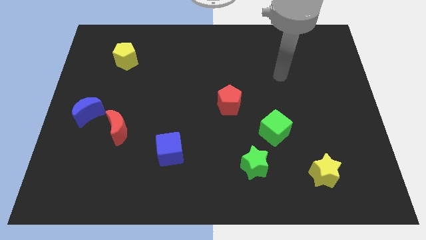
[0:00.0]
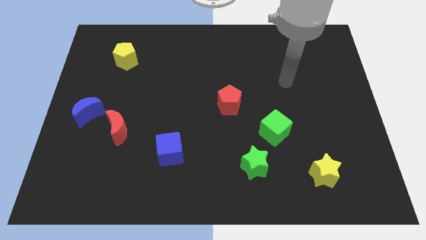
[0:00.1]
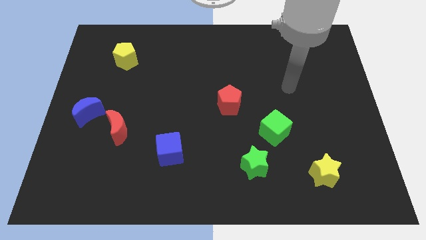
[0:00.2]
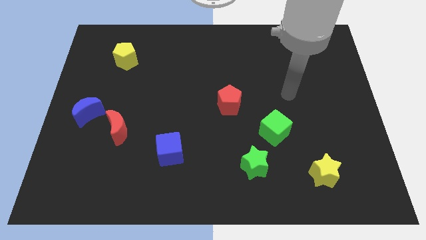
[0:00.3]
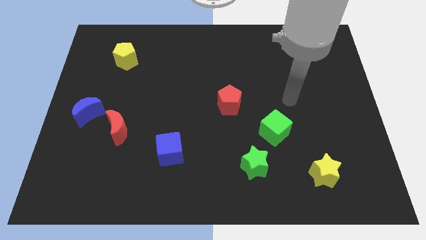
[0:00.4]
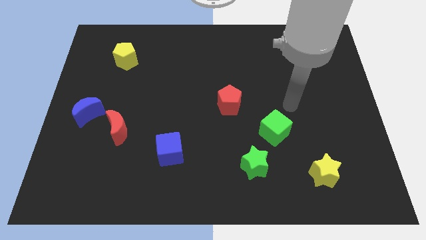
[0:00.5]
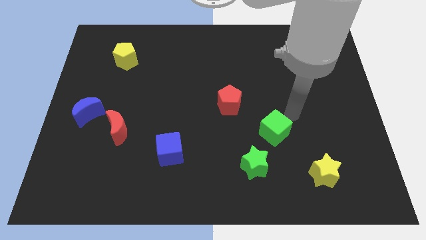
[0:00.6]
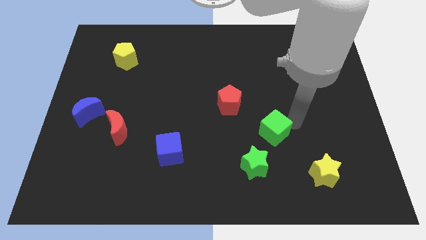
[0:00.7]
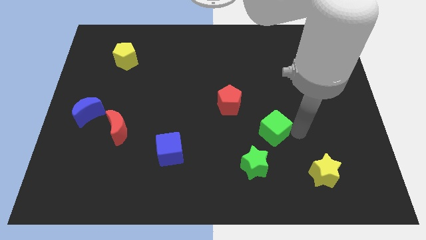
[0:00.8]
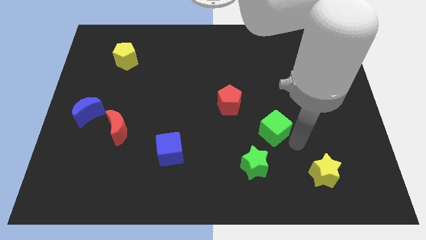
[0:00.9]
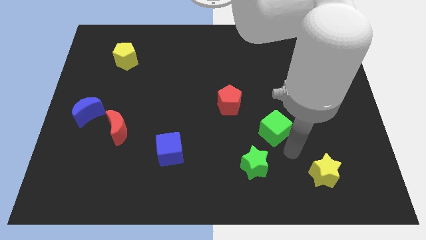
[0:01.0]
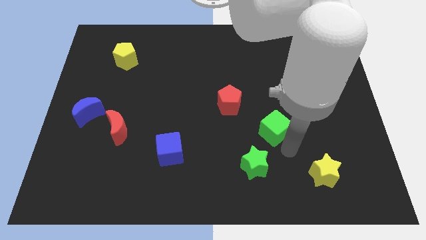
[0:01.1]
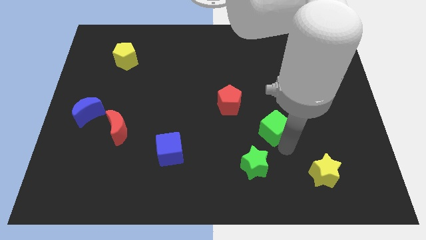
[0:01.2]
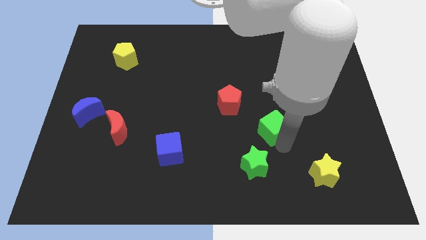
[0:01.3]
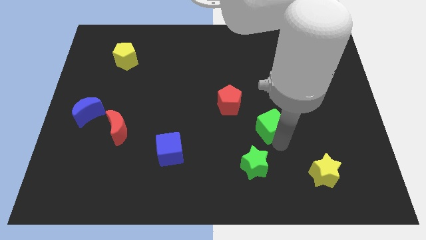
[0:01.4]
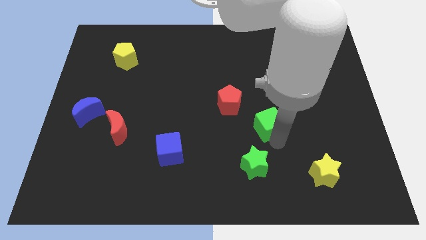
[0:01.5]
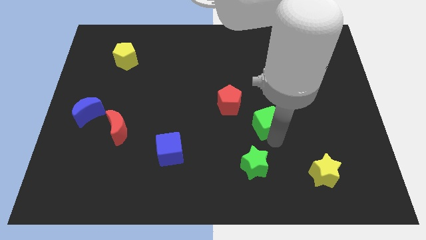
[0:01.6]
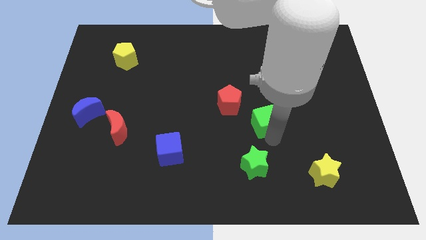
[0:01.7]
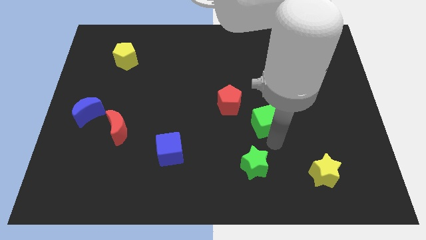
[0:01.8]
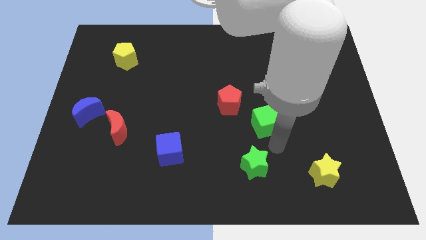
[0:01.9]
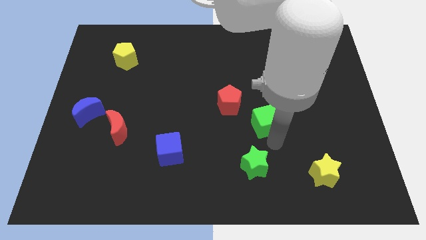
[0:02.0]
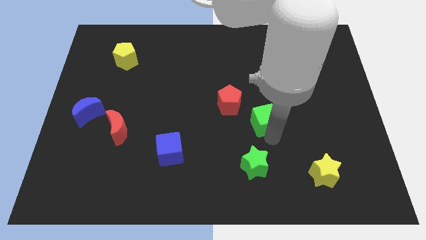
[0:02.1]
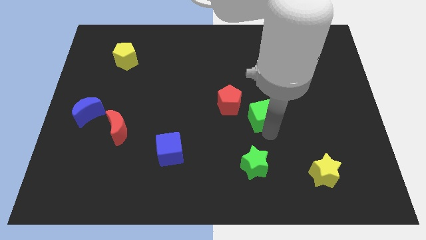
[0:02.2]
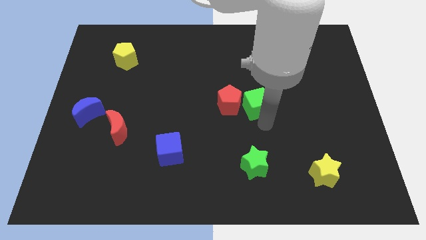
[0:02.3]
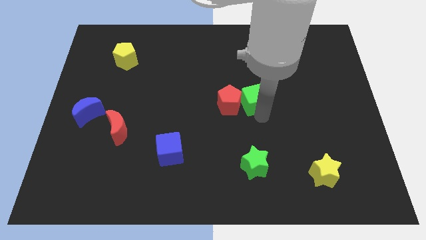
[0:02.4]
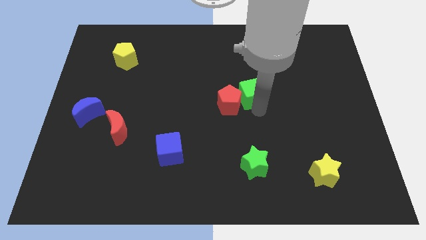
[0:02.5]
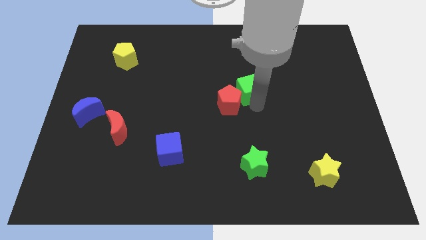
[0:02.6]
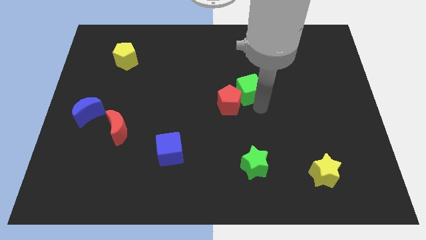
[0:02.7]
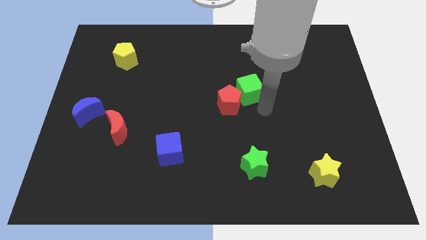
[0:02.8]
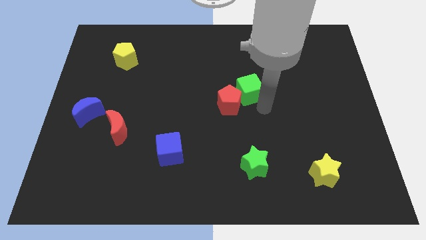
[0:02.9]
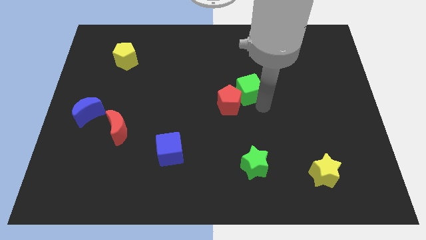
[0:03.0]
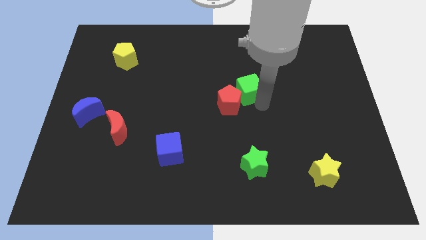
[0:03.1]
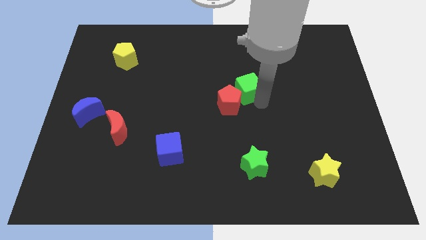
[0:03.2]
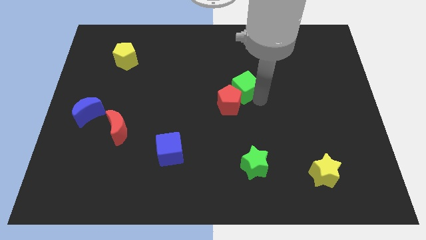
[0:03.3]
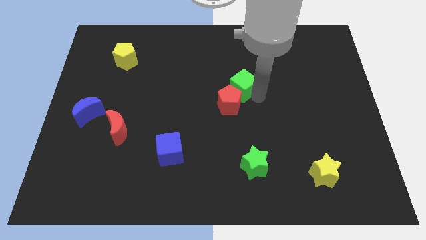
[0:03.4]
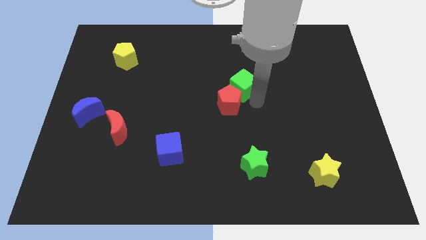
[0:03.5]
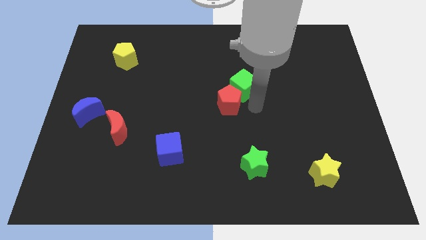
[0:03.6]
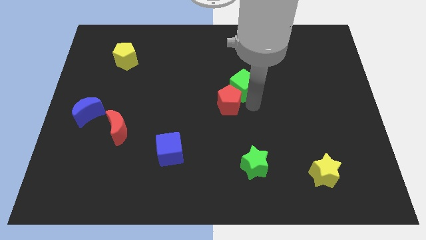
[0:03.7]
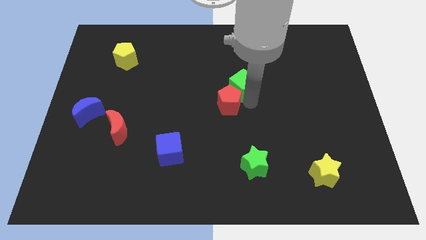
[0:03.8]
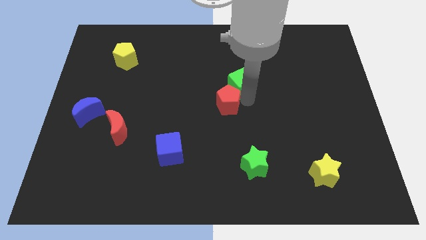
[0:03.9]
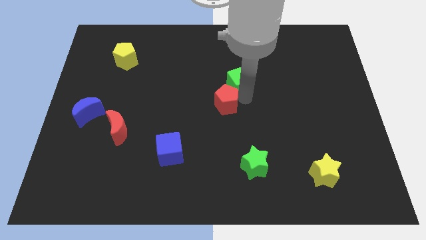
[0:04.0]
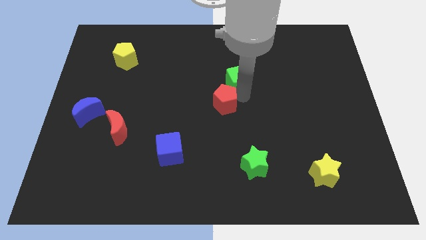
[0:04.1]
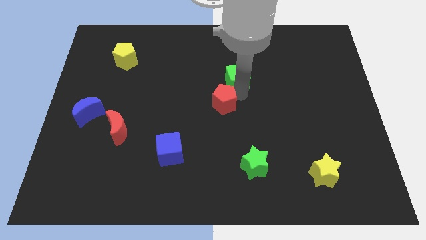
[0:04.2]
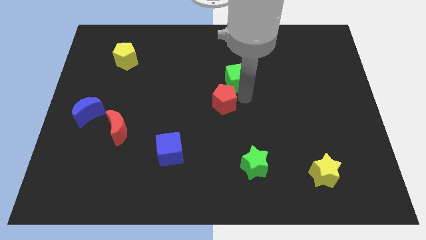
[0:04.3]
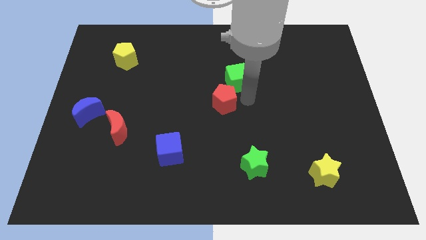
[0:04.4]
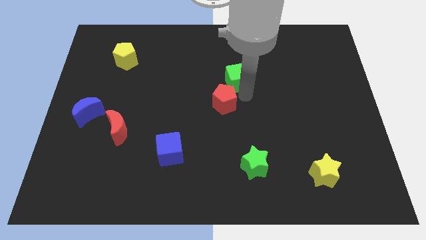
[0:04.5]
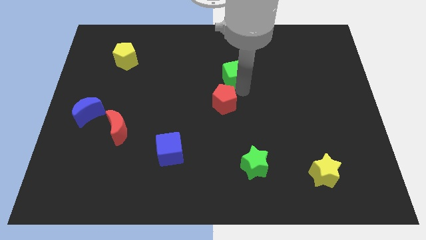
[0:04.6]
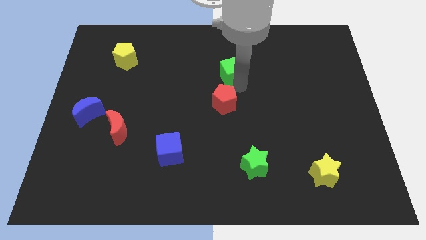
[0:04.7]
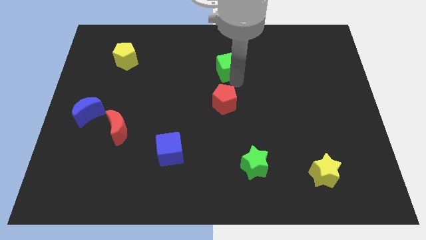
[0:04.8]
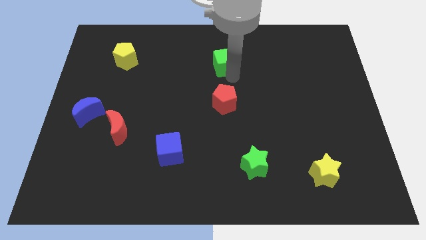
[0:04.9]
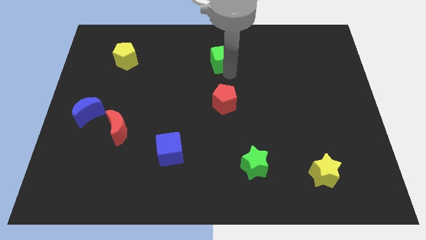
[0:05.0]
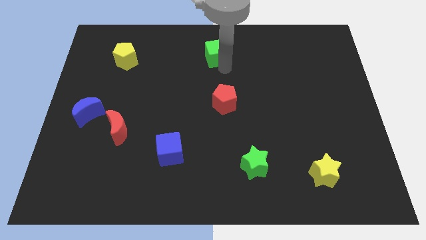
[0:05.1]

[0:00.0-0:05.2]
push the green cube to the top

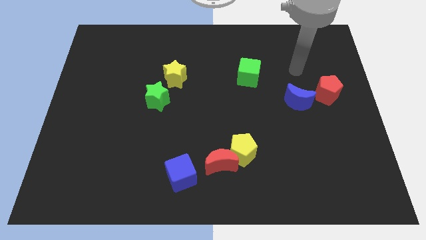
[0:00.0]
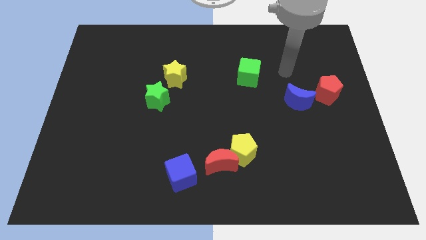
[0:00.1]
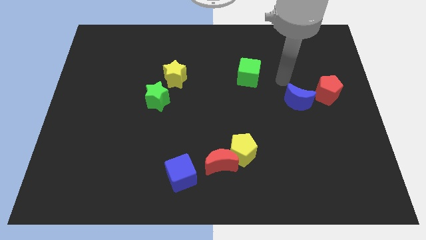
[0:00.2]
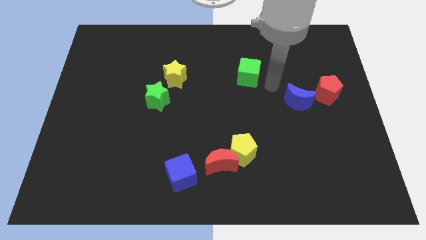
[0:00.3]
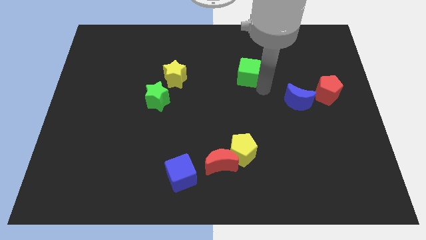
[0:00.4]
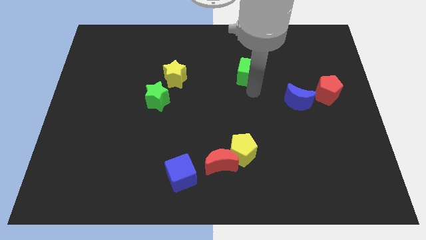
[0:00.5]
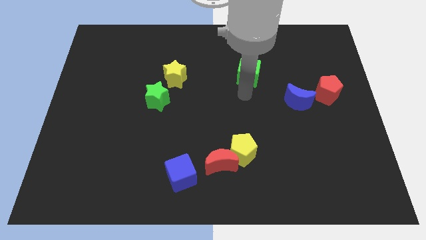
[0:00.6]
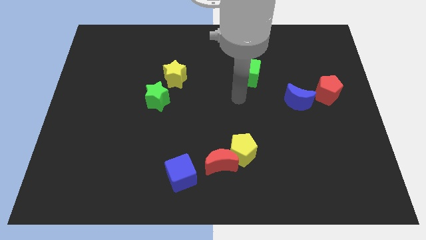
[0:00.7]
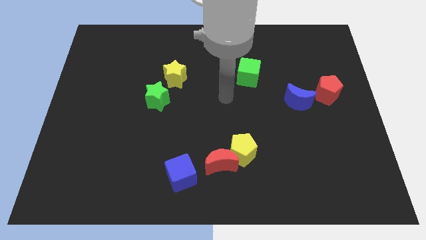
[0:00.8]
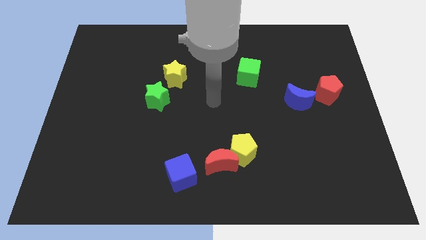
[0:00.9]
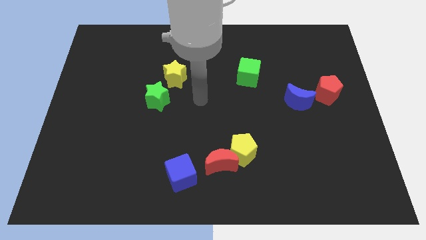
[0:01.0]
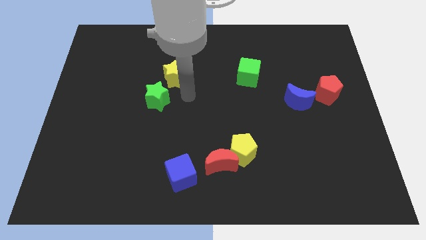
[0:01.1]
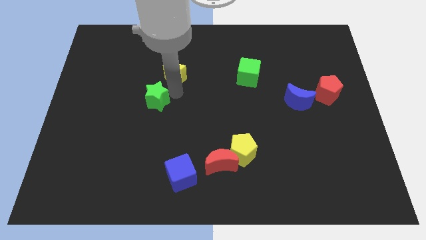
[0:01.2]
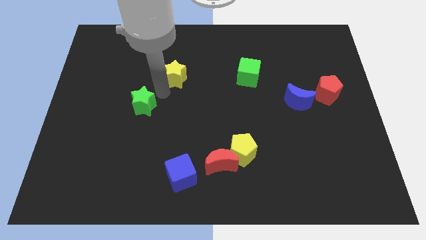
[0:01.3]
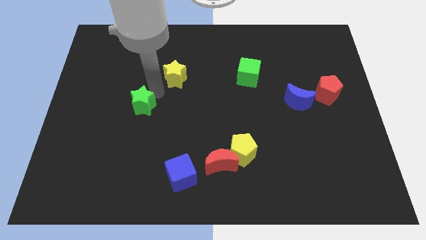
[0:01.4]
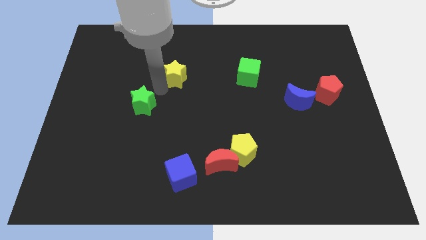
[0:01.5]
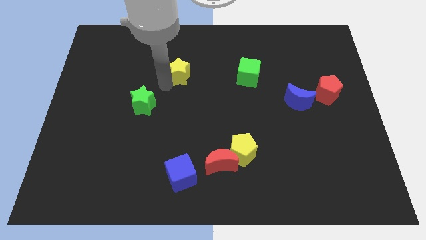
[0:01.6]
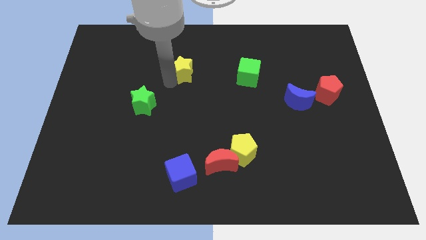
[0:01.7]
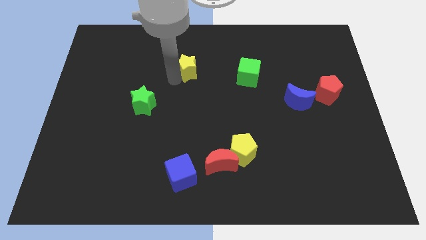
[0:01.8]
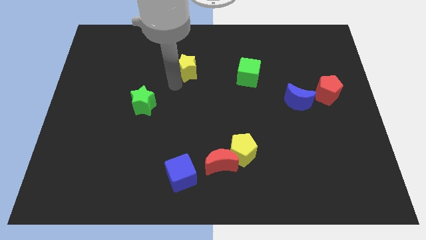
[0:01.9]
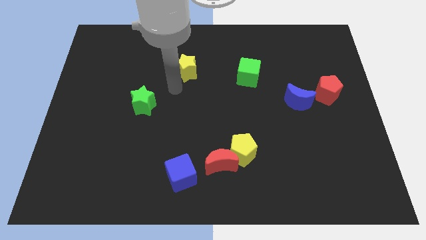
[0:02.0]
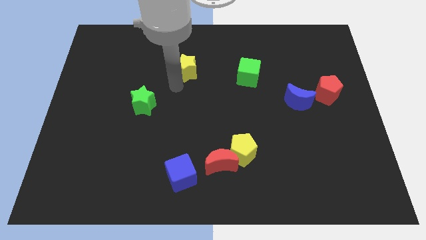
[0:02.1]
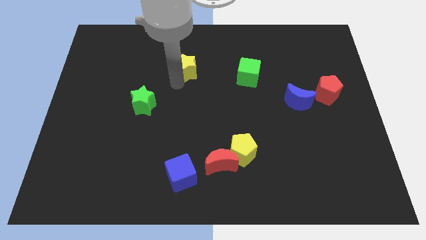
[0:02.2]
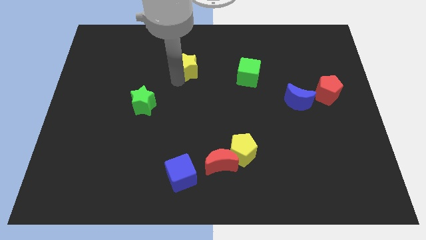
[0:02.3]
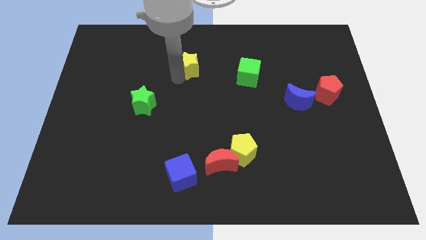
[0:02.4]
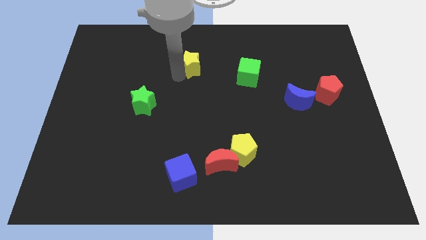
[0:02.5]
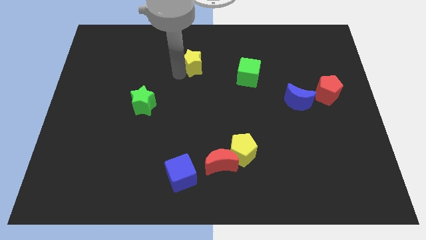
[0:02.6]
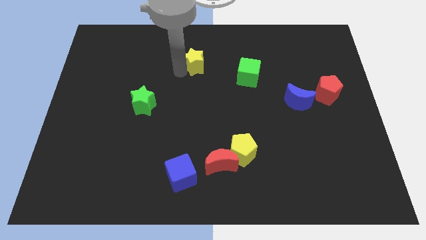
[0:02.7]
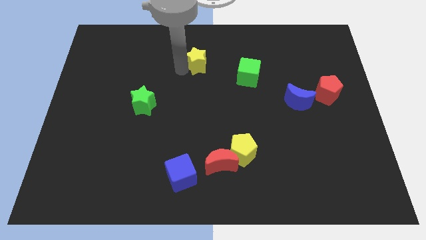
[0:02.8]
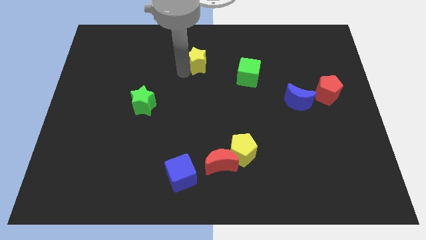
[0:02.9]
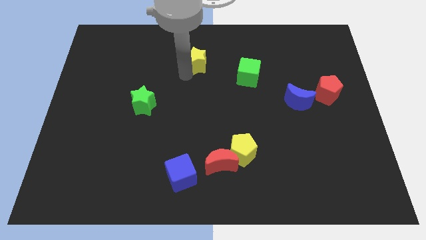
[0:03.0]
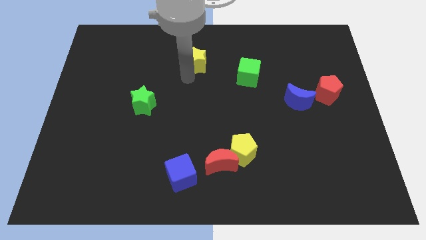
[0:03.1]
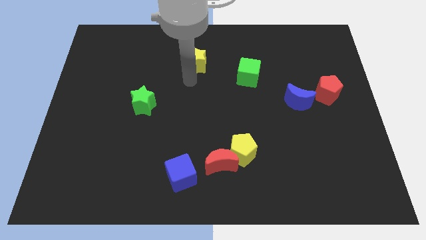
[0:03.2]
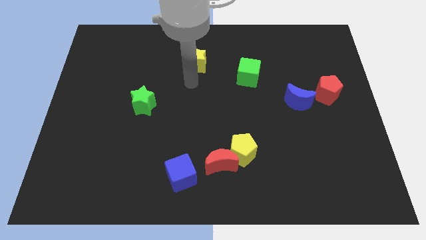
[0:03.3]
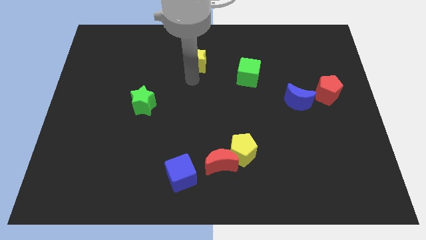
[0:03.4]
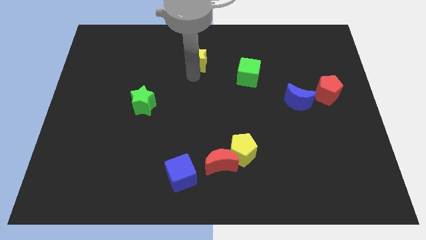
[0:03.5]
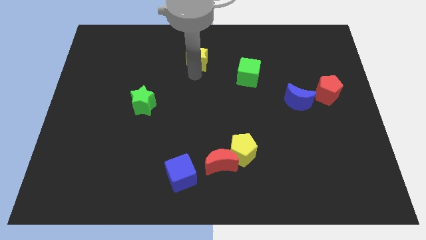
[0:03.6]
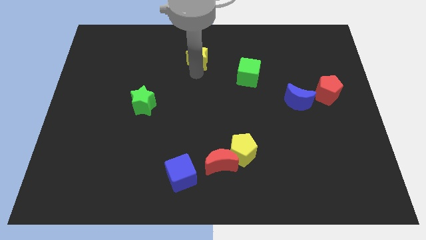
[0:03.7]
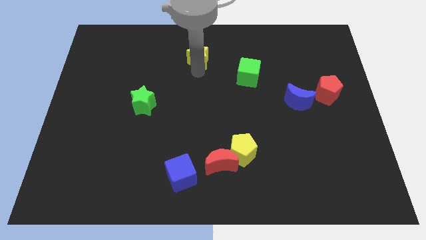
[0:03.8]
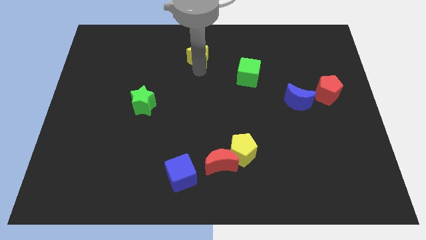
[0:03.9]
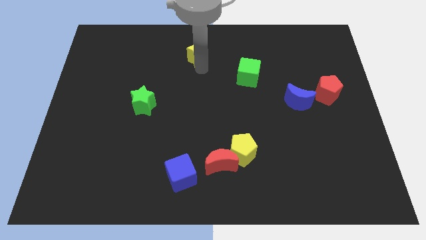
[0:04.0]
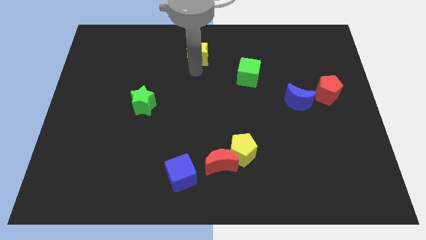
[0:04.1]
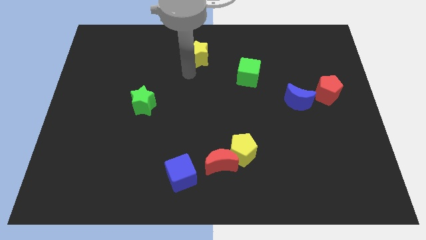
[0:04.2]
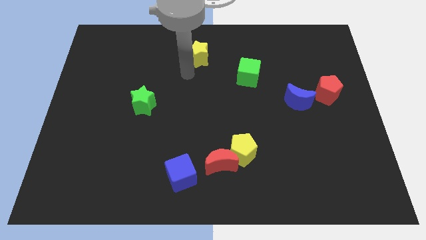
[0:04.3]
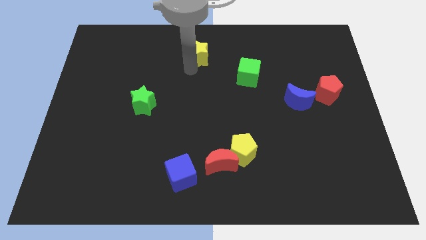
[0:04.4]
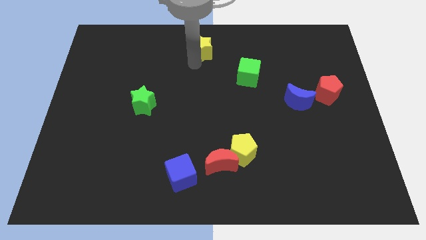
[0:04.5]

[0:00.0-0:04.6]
put the yellow star to the top side
